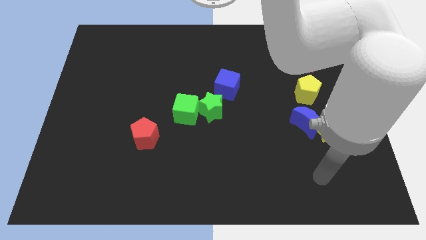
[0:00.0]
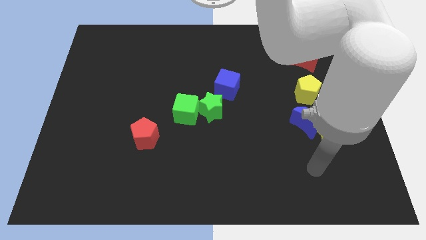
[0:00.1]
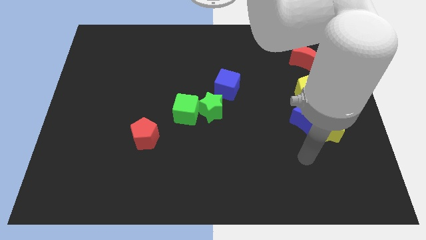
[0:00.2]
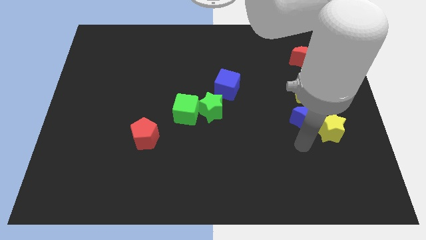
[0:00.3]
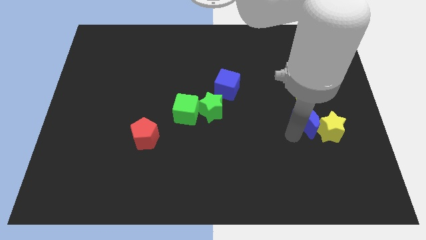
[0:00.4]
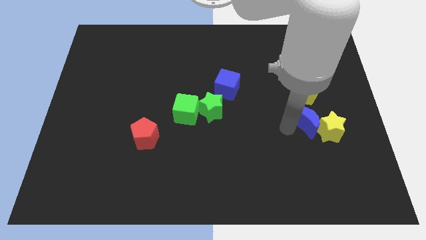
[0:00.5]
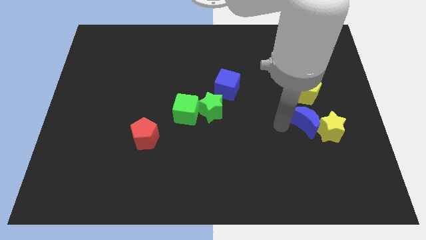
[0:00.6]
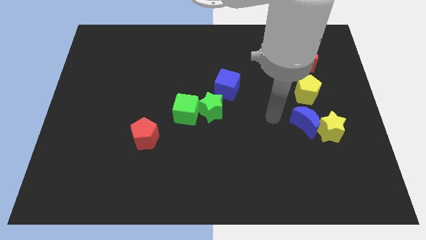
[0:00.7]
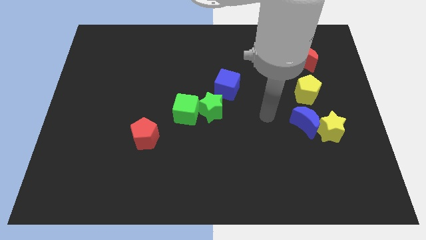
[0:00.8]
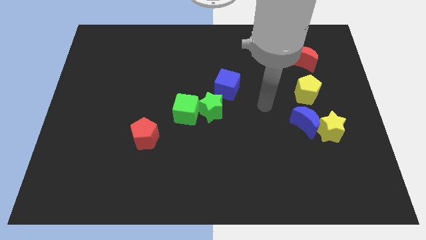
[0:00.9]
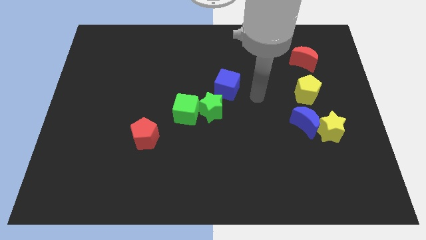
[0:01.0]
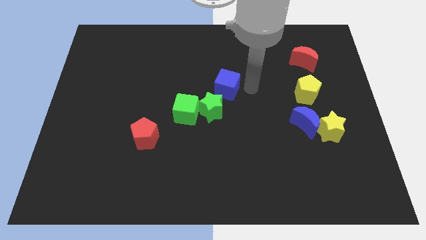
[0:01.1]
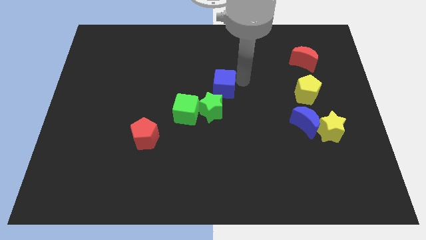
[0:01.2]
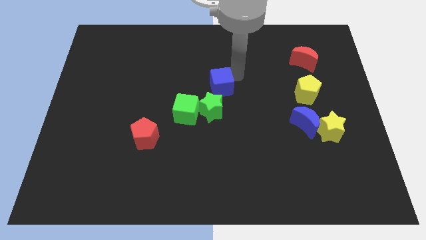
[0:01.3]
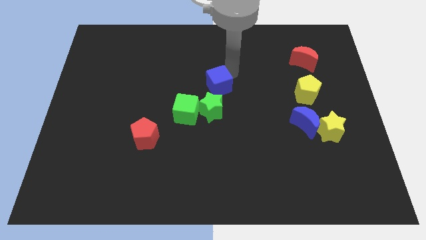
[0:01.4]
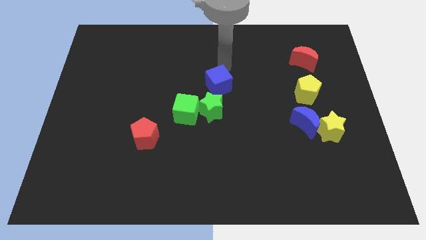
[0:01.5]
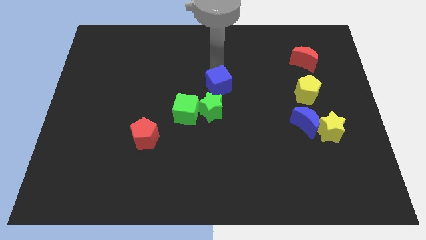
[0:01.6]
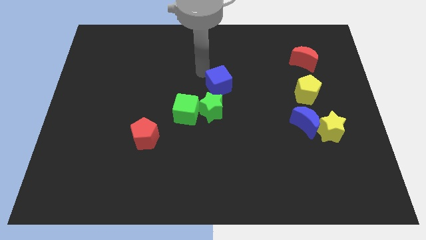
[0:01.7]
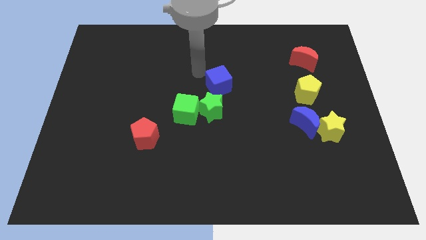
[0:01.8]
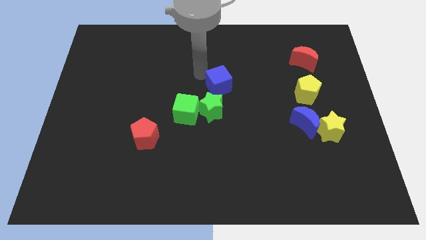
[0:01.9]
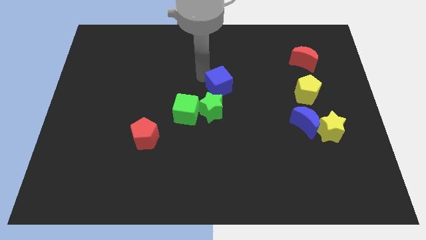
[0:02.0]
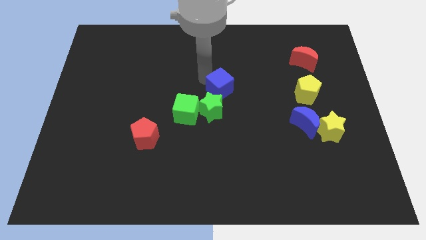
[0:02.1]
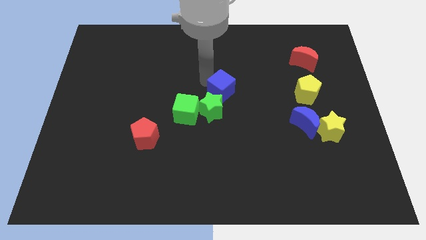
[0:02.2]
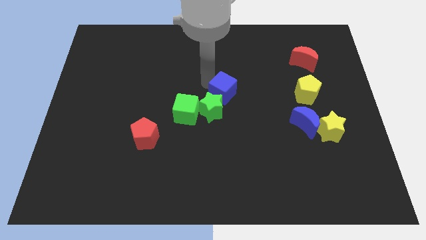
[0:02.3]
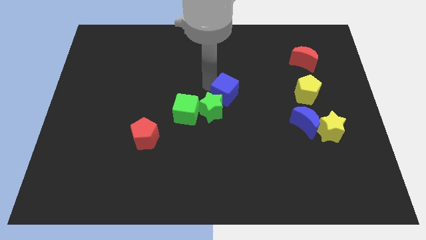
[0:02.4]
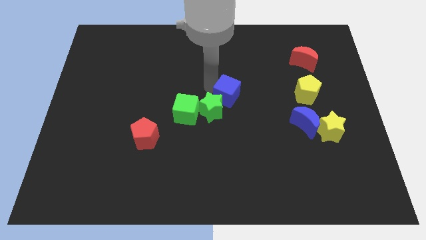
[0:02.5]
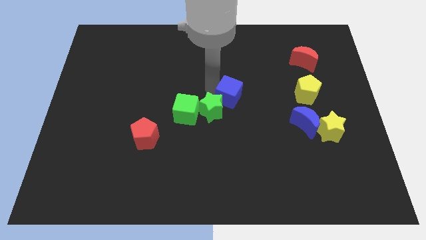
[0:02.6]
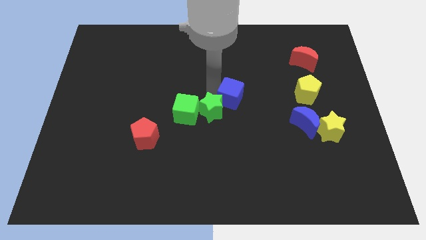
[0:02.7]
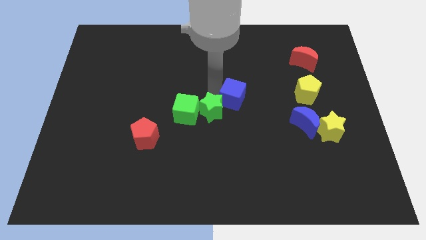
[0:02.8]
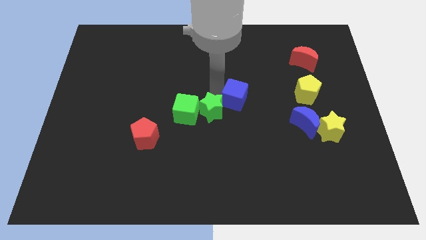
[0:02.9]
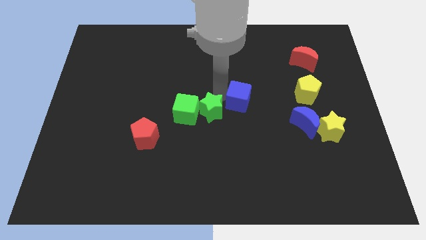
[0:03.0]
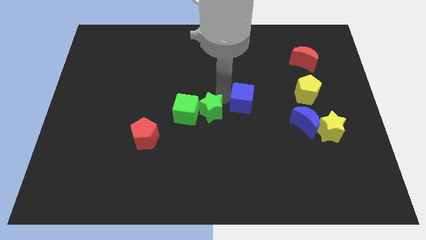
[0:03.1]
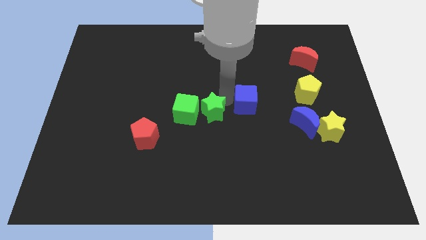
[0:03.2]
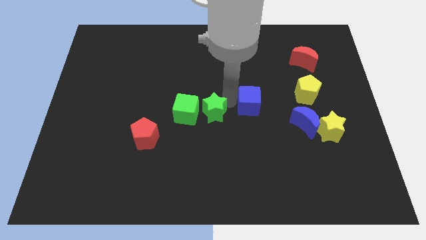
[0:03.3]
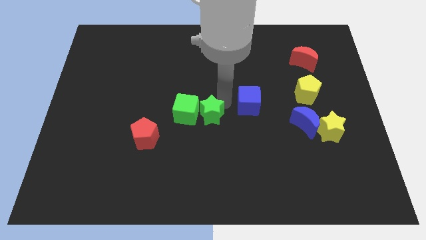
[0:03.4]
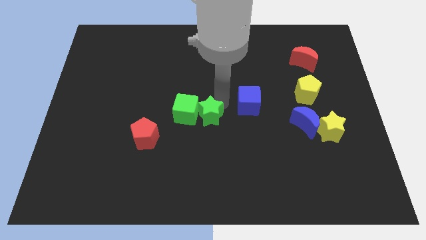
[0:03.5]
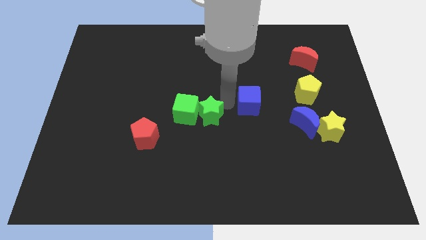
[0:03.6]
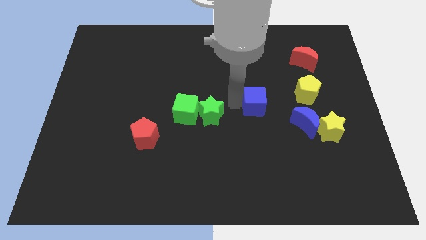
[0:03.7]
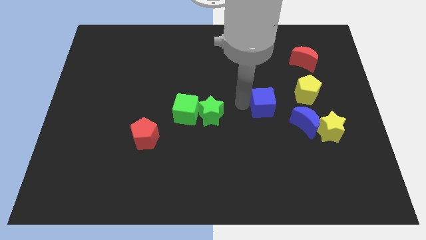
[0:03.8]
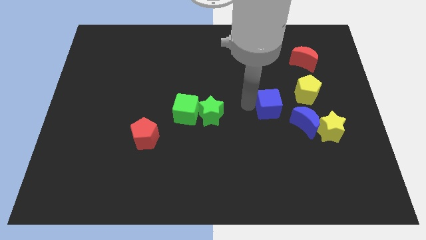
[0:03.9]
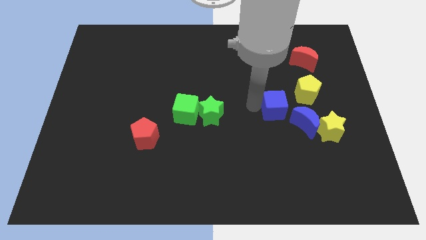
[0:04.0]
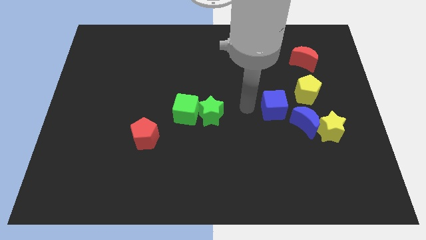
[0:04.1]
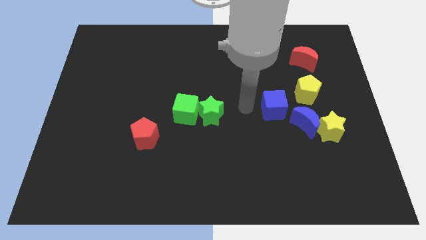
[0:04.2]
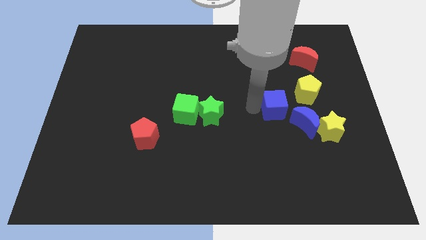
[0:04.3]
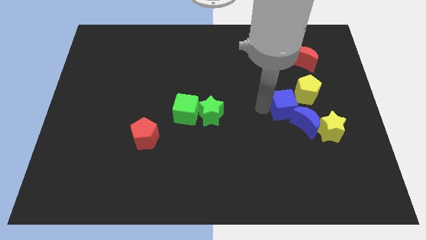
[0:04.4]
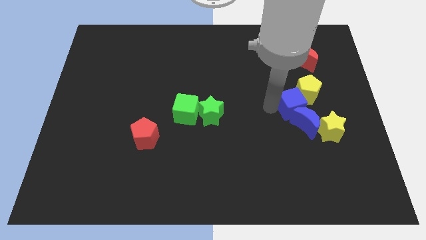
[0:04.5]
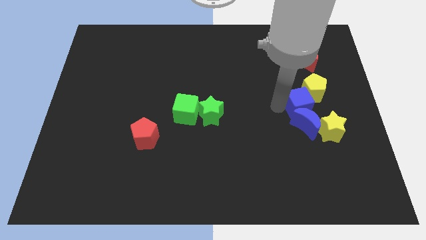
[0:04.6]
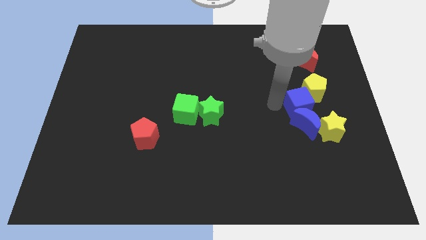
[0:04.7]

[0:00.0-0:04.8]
move the blue cube to the bottom side of the red moon

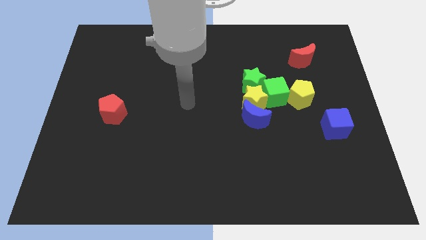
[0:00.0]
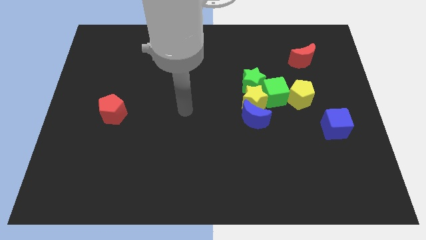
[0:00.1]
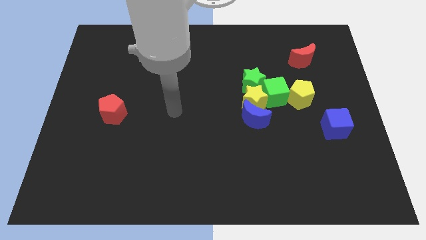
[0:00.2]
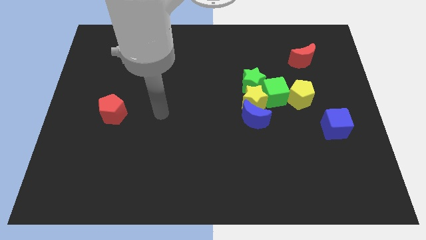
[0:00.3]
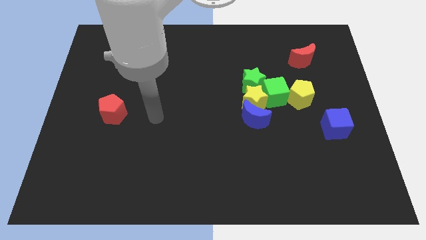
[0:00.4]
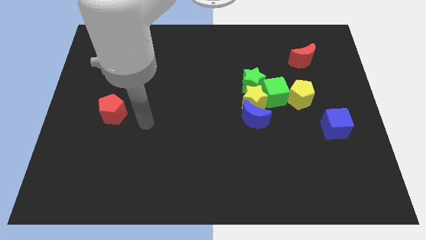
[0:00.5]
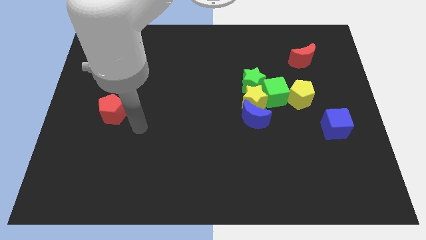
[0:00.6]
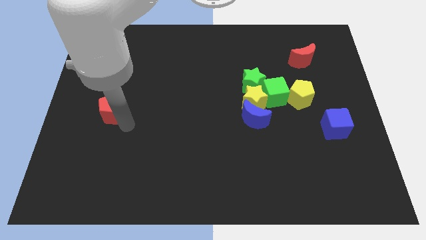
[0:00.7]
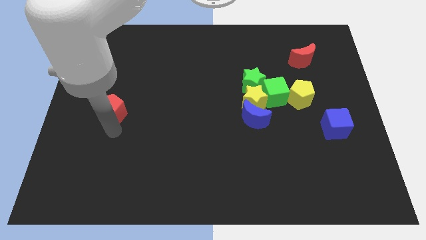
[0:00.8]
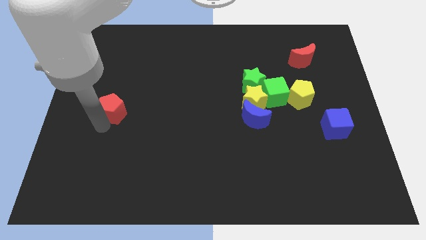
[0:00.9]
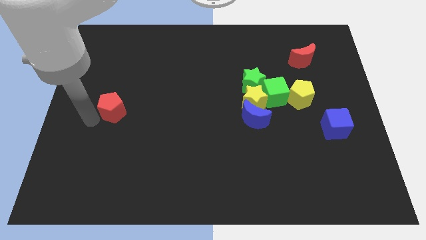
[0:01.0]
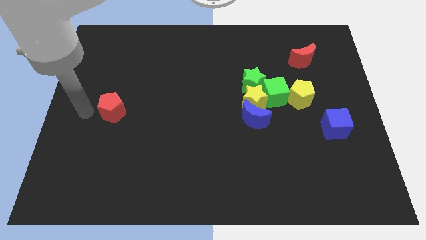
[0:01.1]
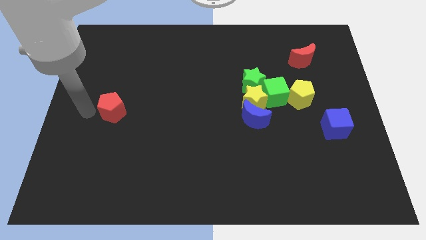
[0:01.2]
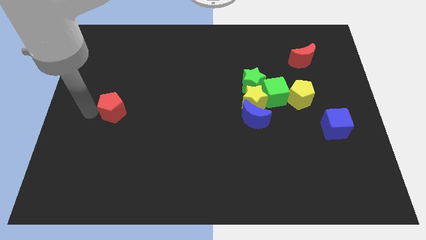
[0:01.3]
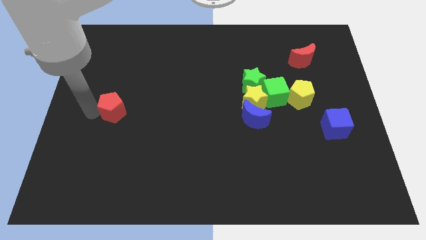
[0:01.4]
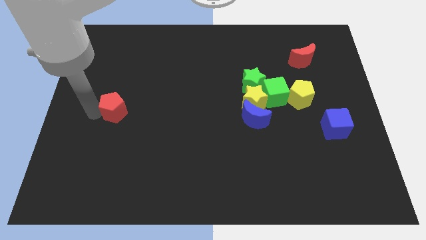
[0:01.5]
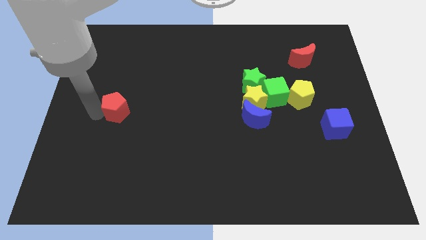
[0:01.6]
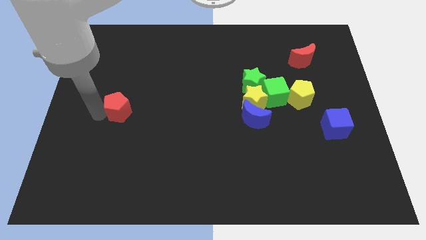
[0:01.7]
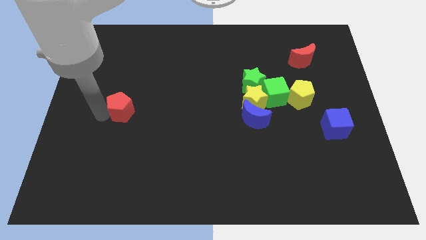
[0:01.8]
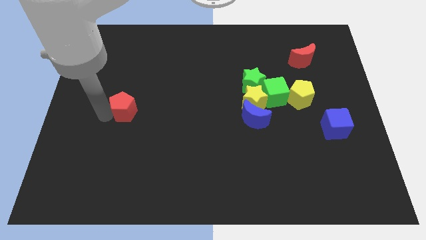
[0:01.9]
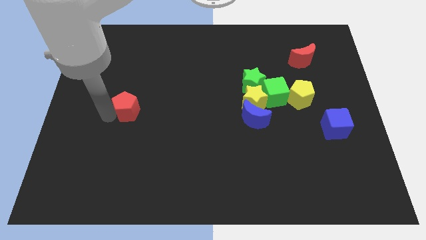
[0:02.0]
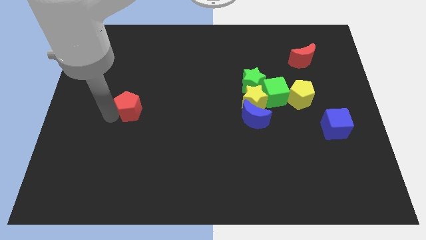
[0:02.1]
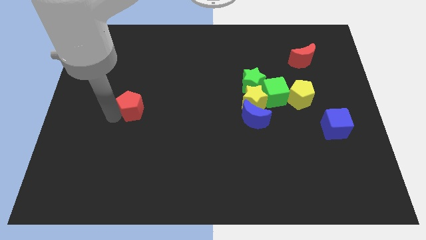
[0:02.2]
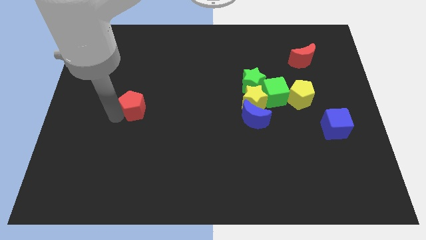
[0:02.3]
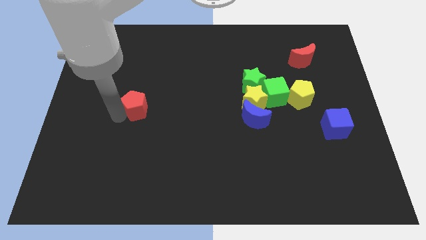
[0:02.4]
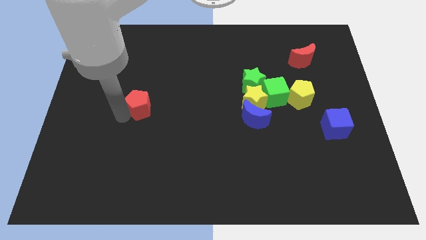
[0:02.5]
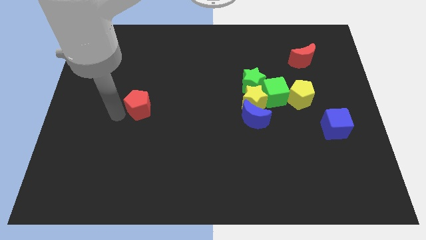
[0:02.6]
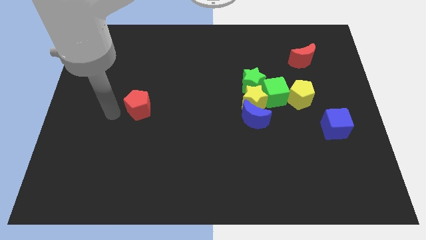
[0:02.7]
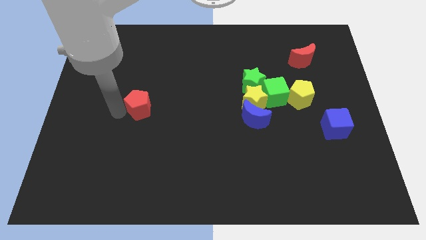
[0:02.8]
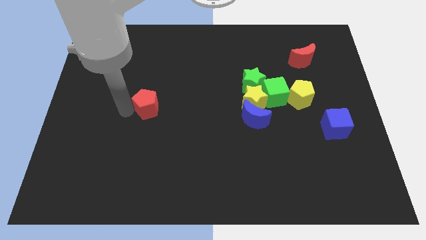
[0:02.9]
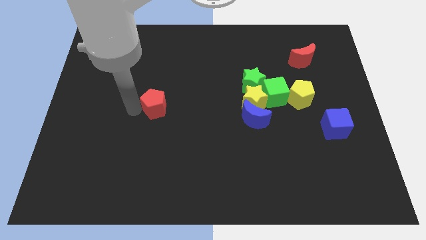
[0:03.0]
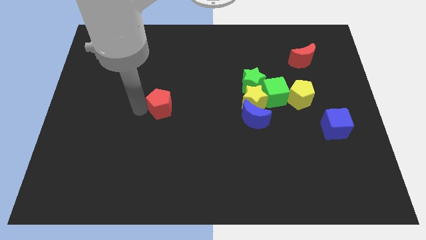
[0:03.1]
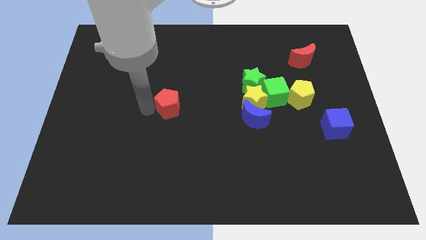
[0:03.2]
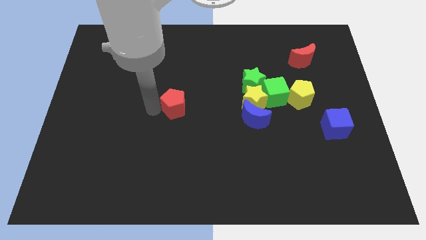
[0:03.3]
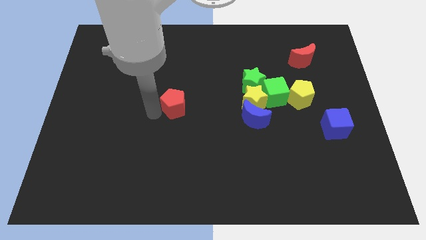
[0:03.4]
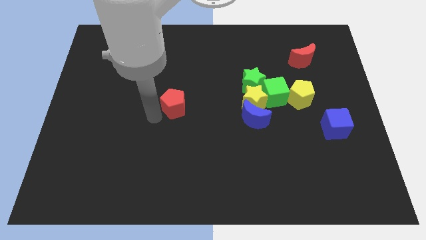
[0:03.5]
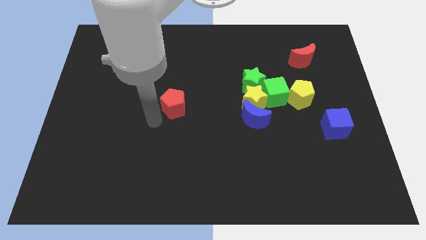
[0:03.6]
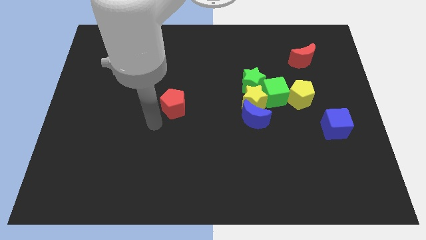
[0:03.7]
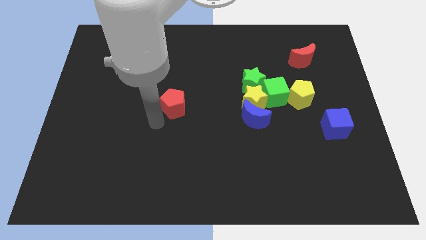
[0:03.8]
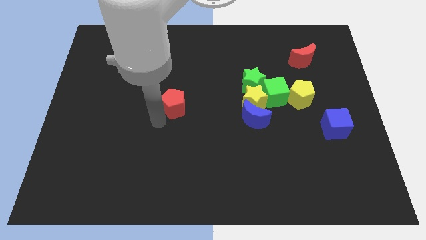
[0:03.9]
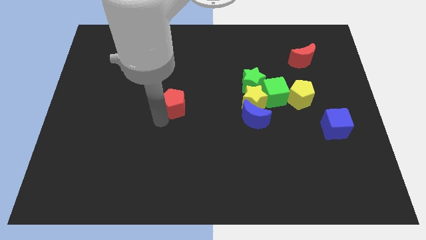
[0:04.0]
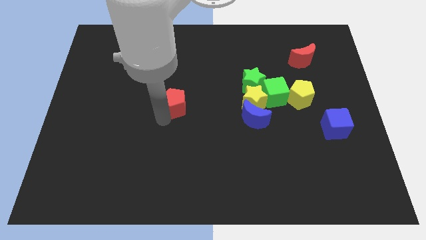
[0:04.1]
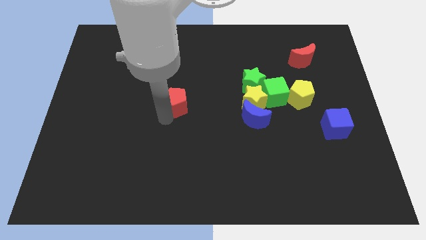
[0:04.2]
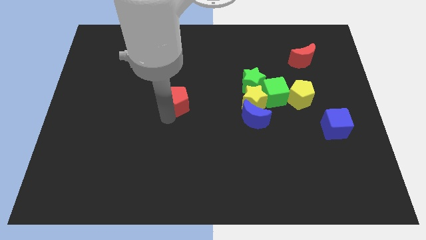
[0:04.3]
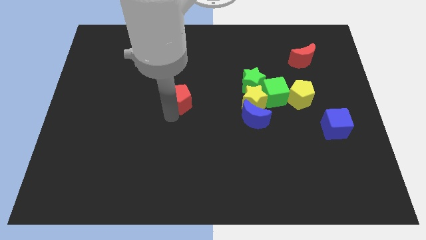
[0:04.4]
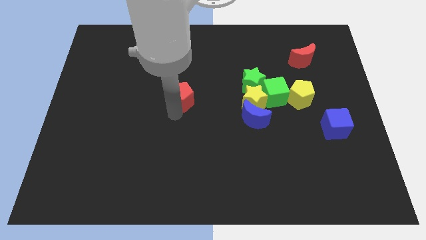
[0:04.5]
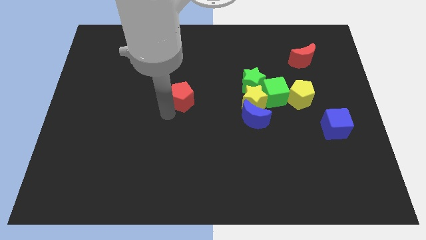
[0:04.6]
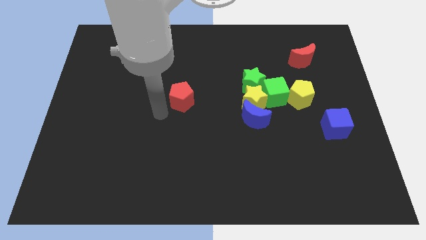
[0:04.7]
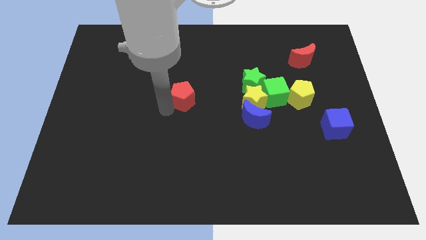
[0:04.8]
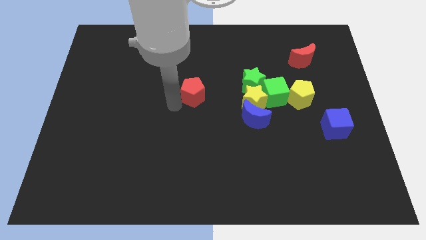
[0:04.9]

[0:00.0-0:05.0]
push the red pentagon just left of the green star
